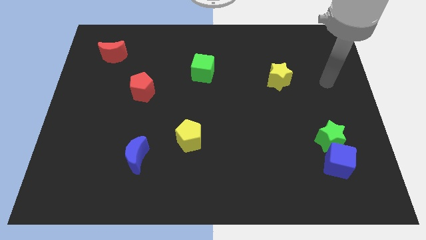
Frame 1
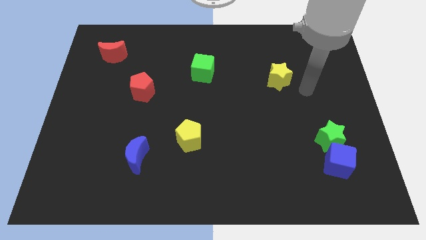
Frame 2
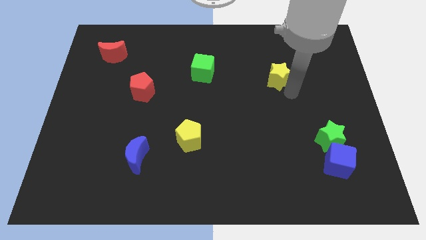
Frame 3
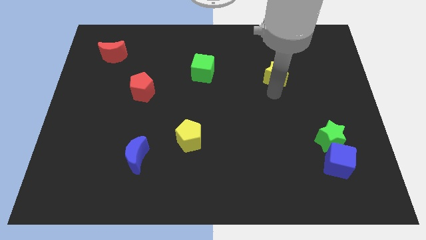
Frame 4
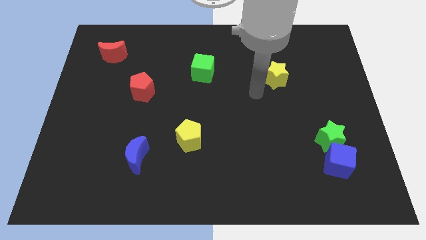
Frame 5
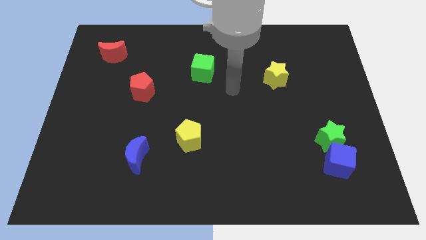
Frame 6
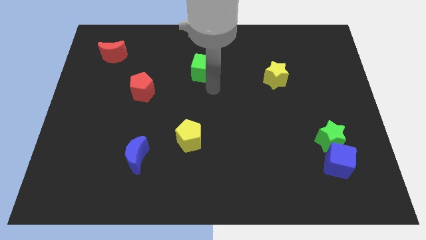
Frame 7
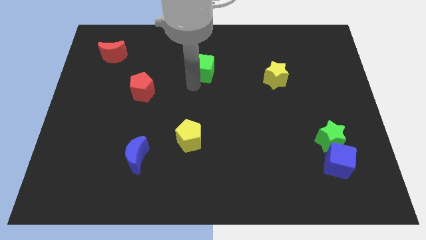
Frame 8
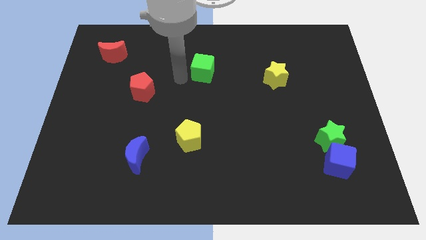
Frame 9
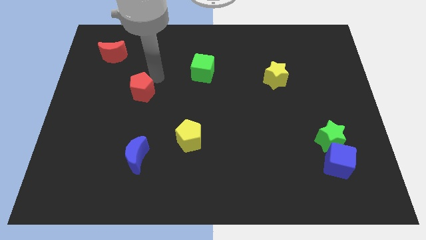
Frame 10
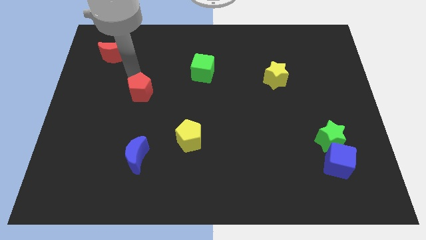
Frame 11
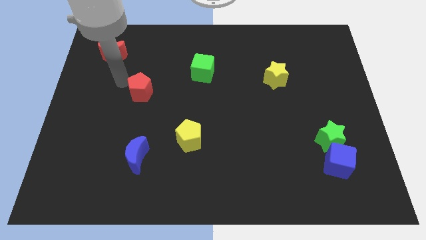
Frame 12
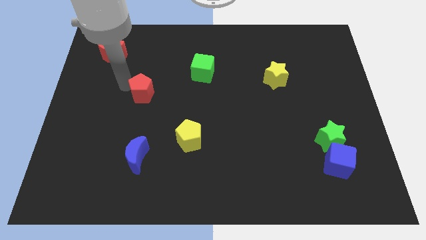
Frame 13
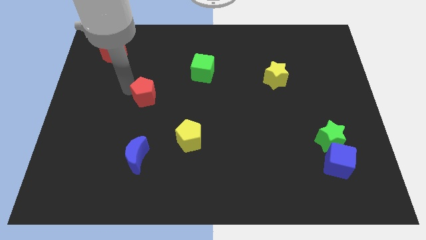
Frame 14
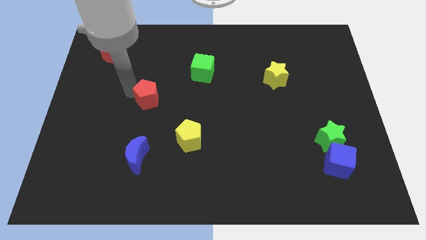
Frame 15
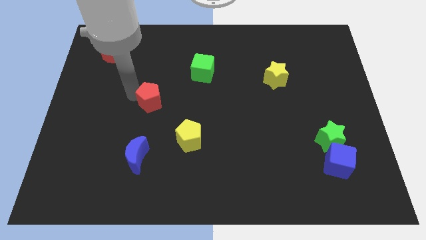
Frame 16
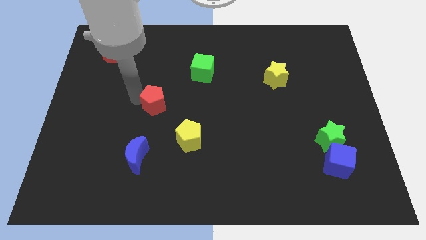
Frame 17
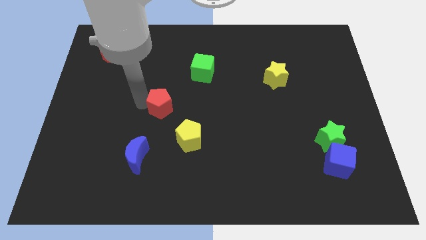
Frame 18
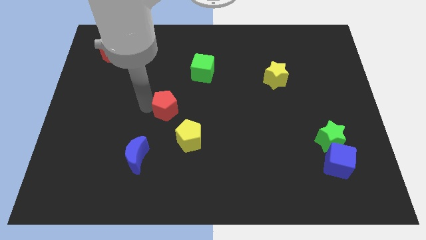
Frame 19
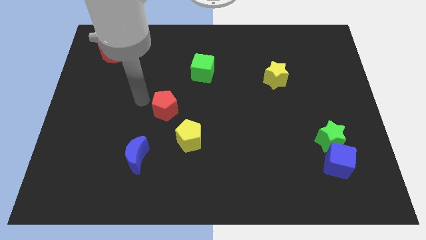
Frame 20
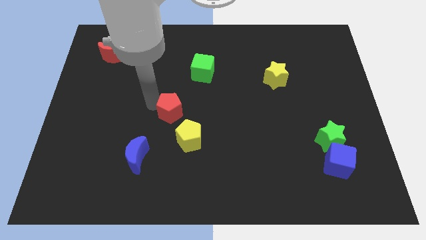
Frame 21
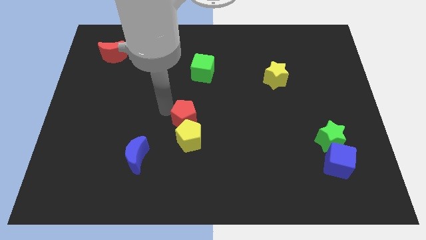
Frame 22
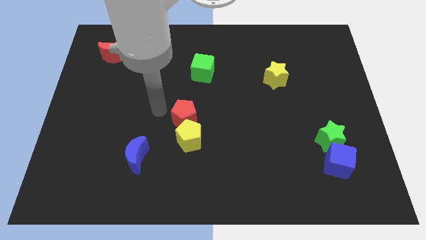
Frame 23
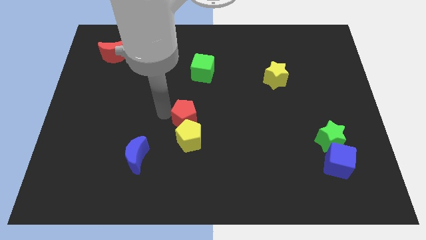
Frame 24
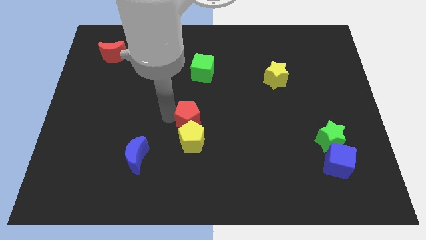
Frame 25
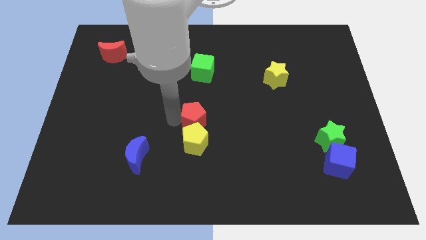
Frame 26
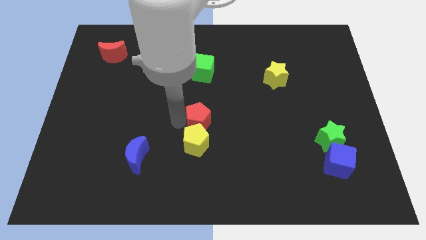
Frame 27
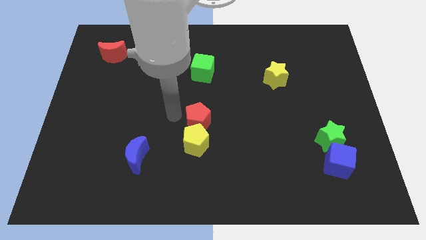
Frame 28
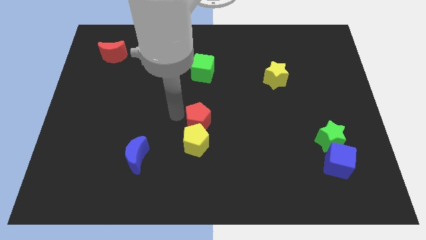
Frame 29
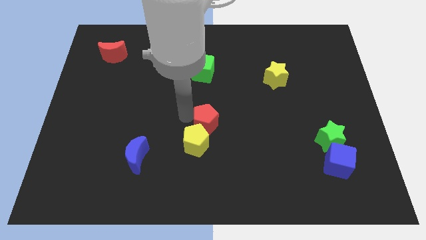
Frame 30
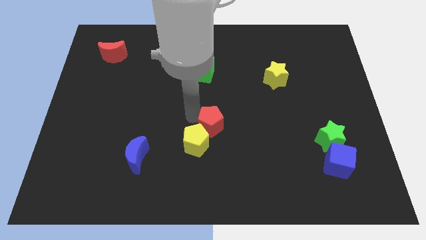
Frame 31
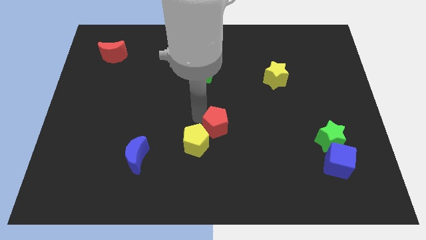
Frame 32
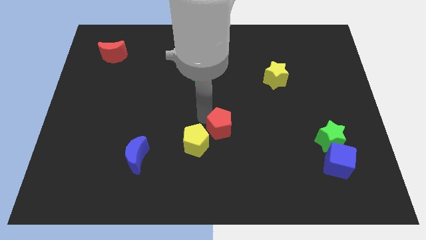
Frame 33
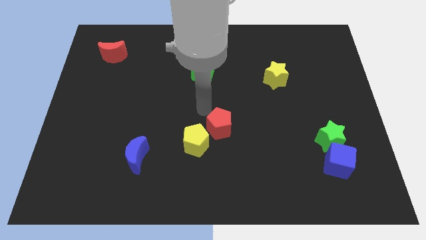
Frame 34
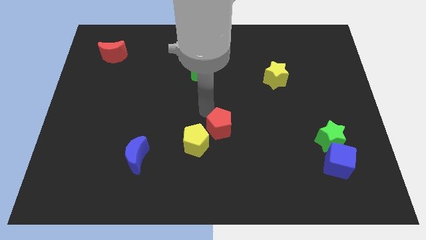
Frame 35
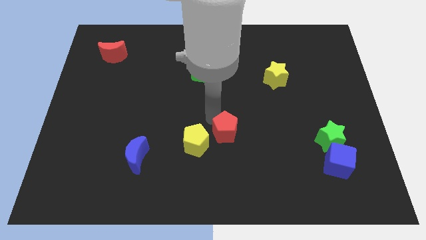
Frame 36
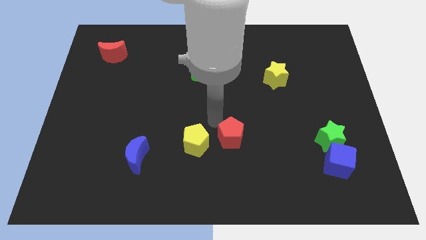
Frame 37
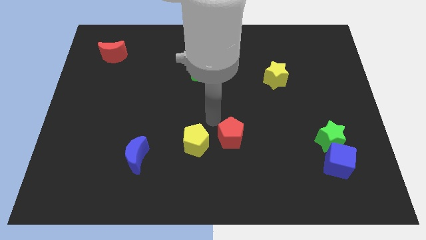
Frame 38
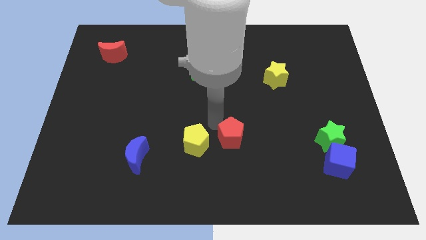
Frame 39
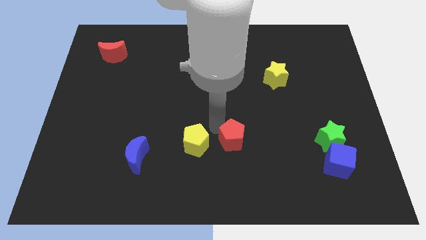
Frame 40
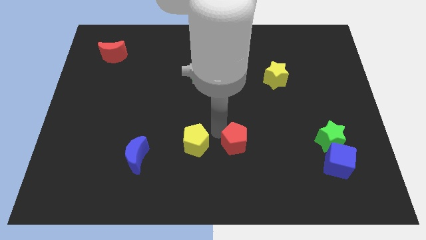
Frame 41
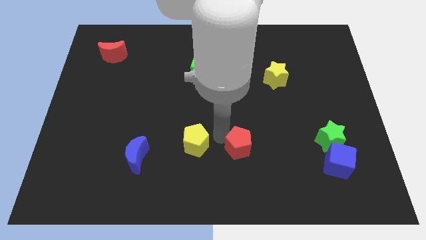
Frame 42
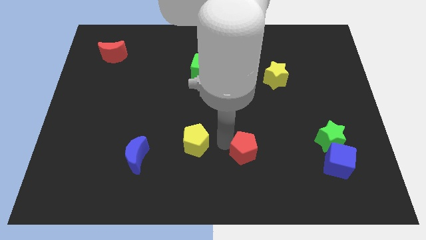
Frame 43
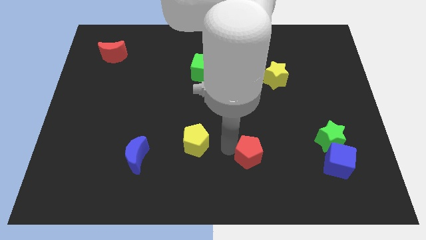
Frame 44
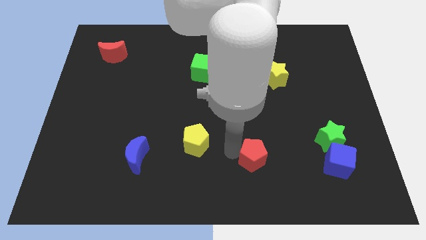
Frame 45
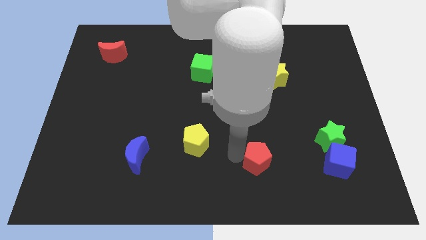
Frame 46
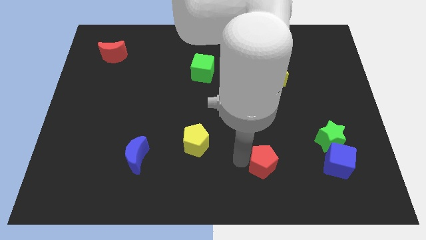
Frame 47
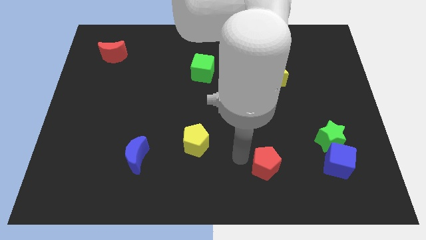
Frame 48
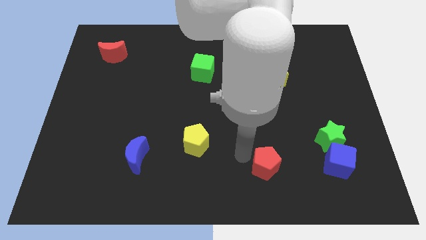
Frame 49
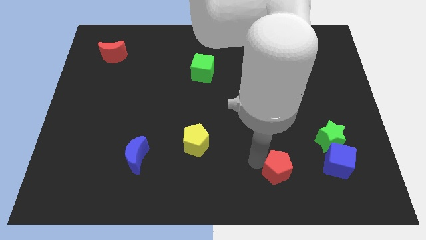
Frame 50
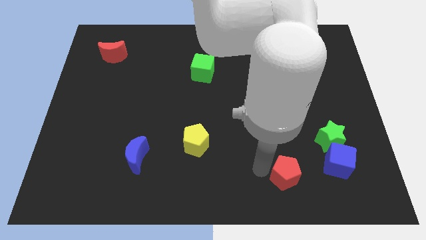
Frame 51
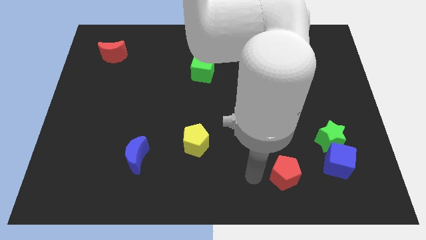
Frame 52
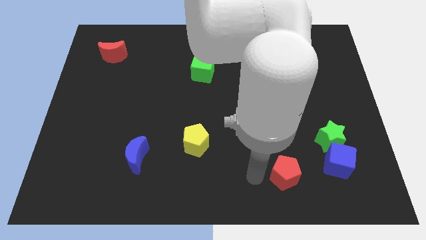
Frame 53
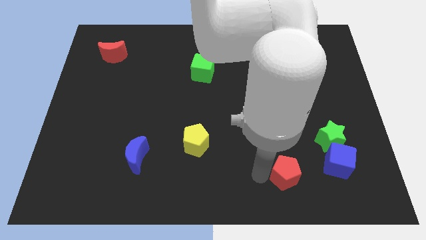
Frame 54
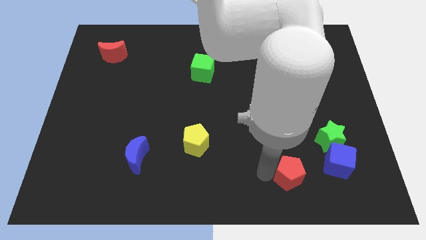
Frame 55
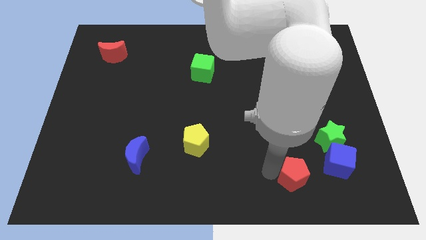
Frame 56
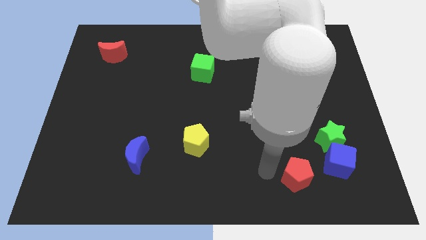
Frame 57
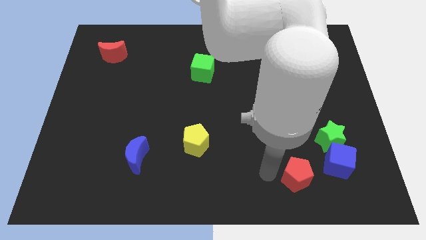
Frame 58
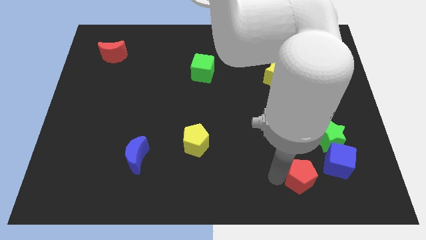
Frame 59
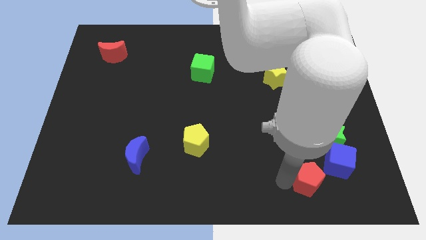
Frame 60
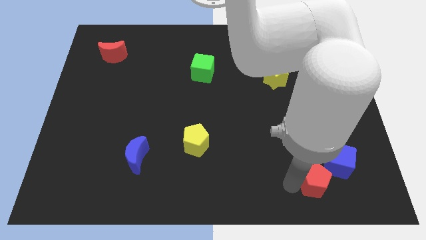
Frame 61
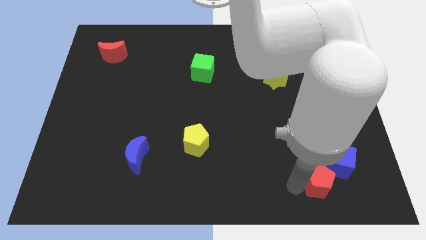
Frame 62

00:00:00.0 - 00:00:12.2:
slide the red pentagon to the bottom side of the green star

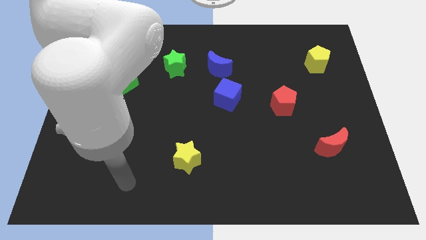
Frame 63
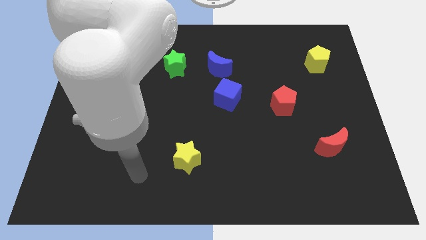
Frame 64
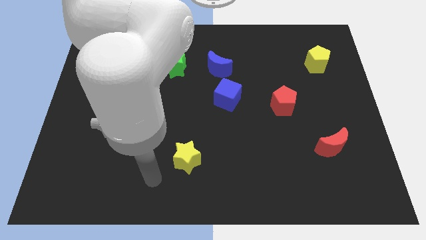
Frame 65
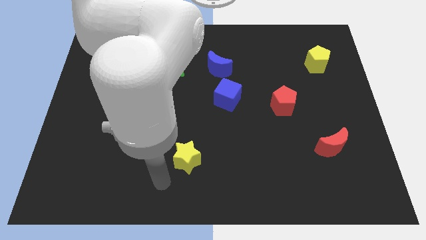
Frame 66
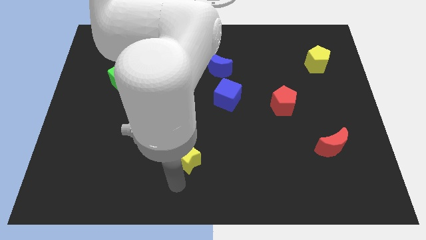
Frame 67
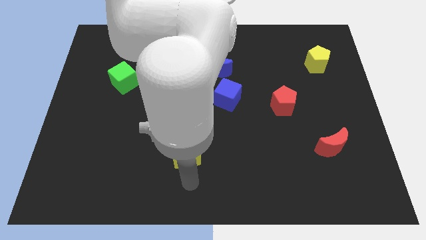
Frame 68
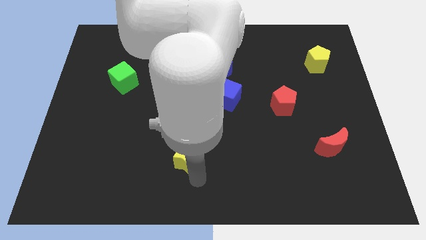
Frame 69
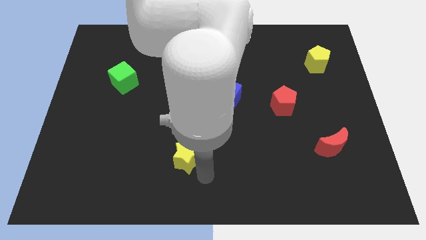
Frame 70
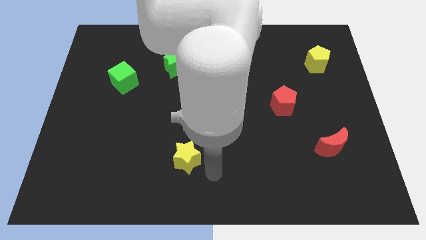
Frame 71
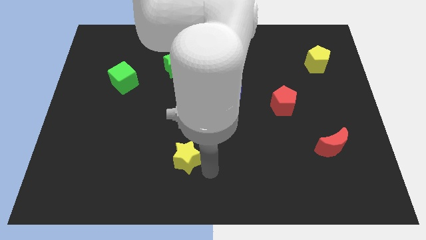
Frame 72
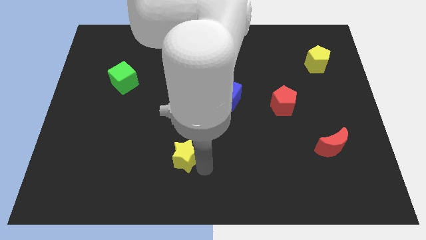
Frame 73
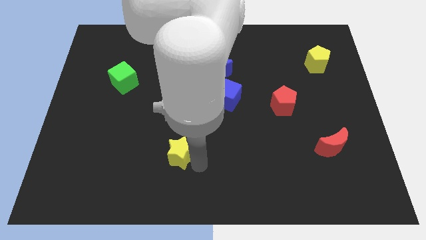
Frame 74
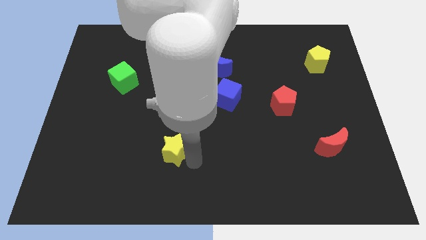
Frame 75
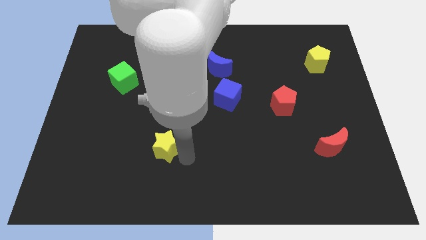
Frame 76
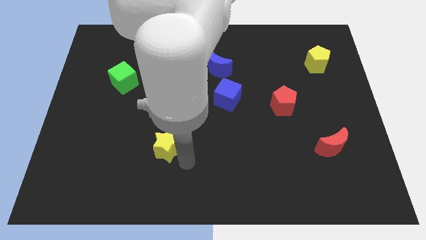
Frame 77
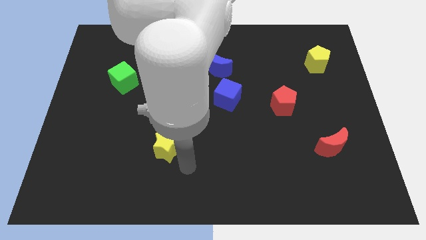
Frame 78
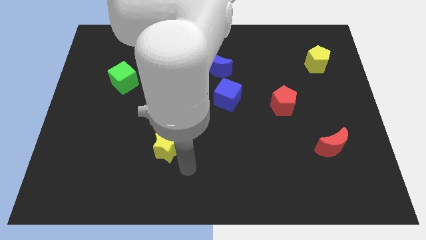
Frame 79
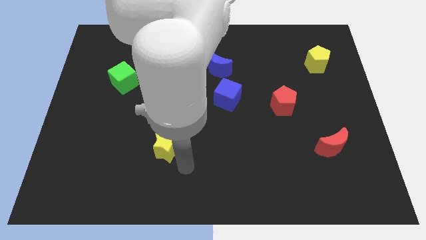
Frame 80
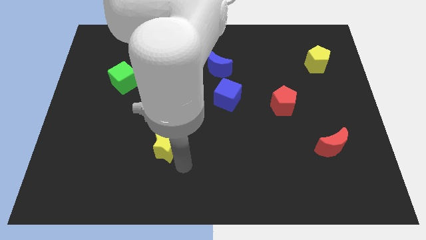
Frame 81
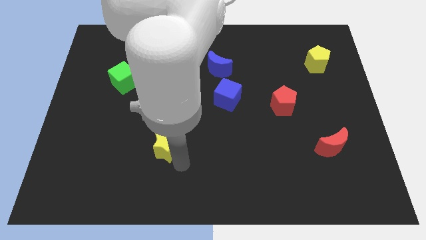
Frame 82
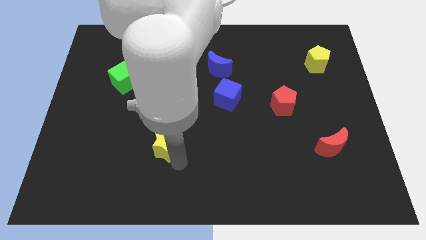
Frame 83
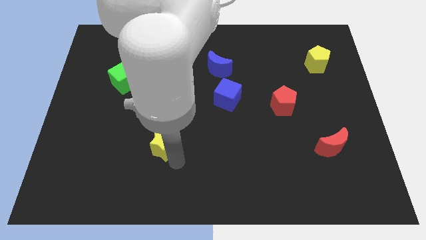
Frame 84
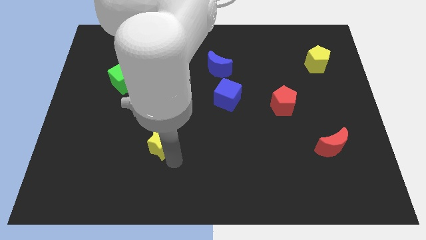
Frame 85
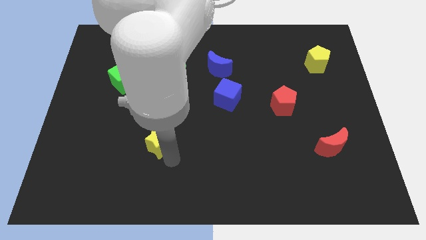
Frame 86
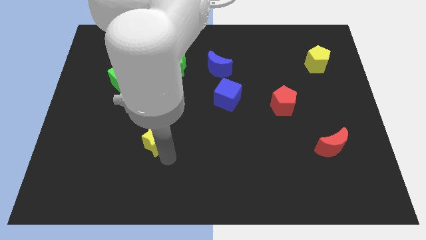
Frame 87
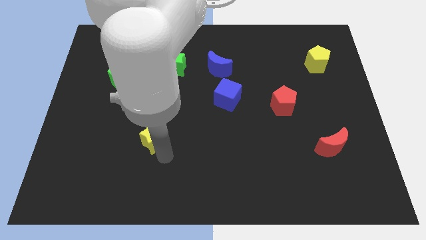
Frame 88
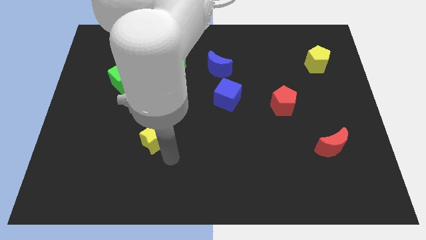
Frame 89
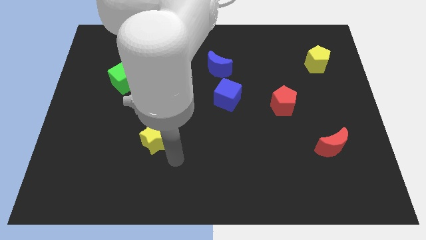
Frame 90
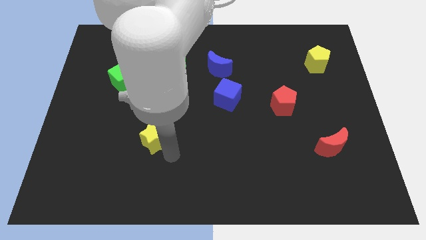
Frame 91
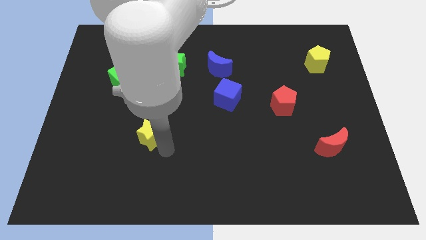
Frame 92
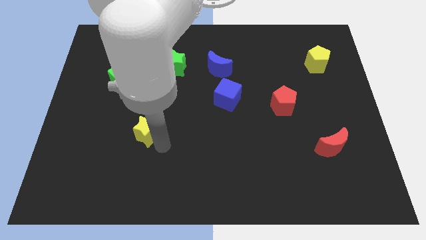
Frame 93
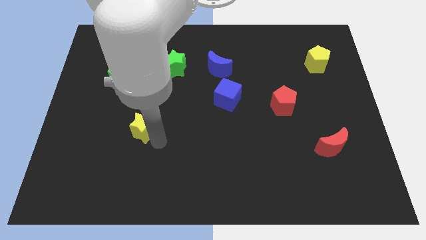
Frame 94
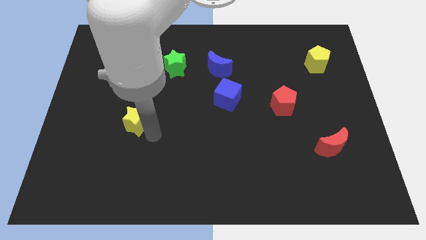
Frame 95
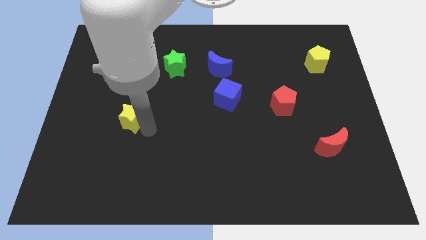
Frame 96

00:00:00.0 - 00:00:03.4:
slide the yellow star below the green cube
